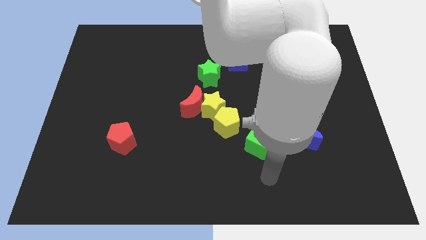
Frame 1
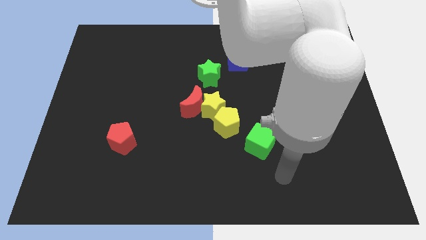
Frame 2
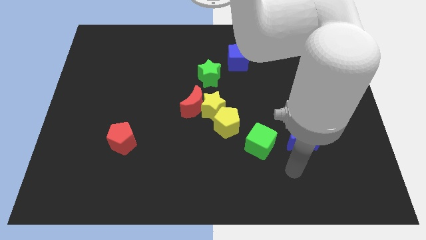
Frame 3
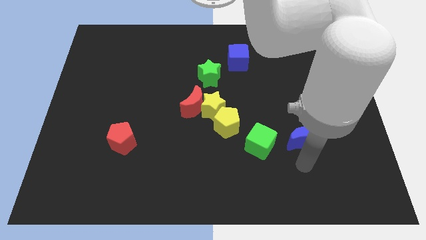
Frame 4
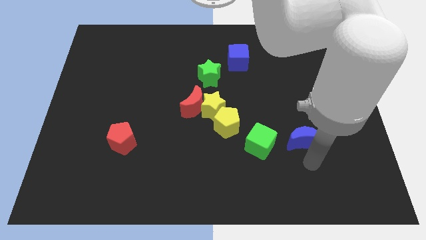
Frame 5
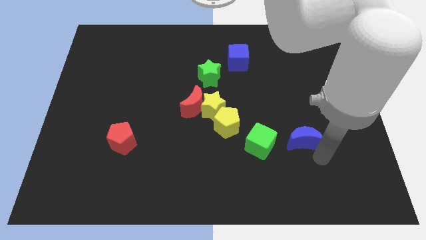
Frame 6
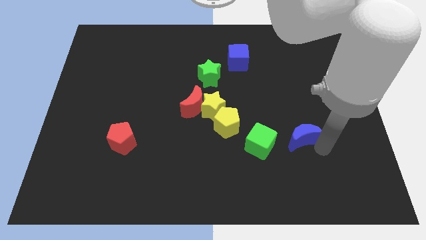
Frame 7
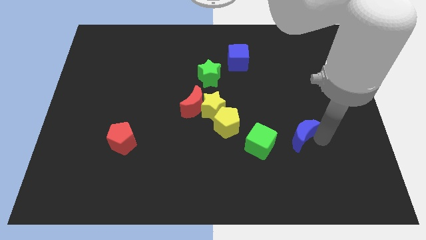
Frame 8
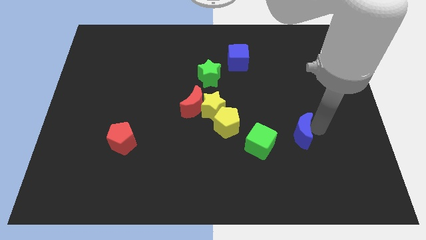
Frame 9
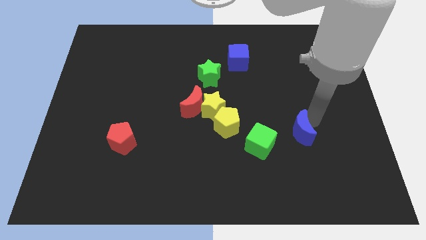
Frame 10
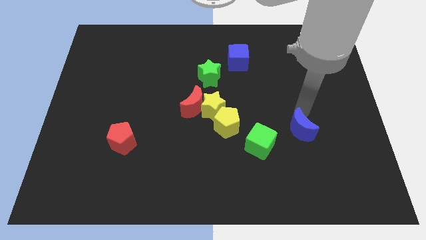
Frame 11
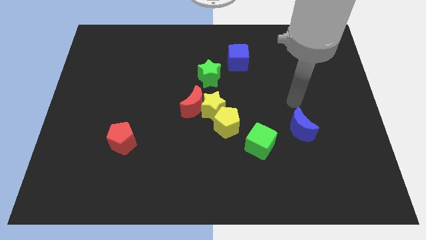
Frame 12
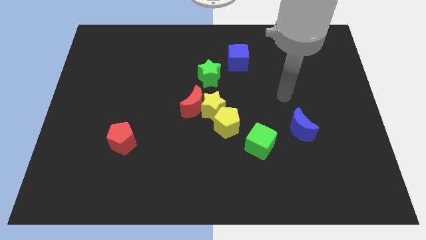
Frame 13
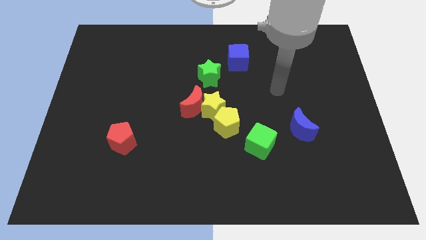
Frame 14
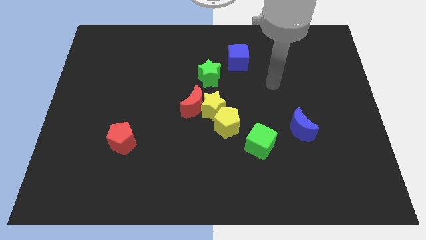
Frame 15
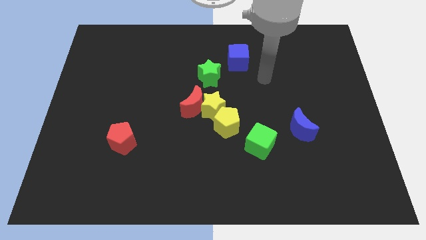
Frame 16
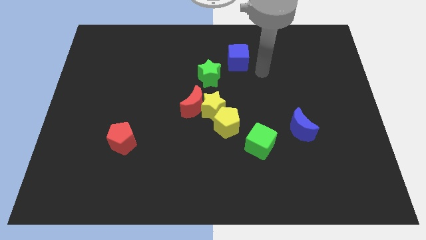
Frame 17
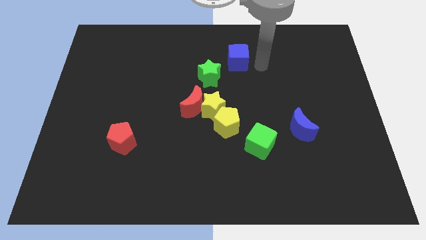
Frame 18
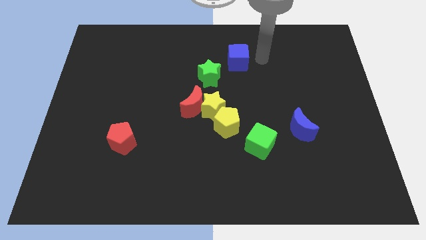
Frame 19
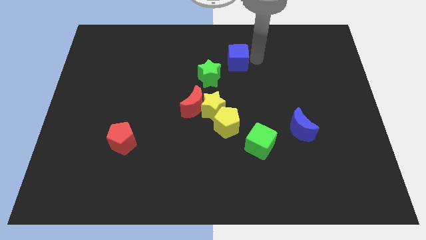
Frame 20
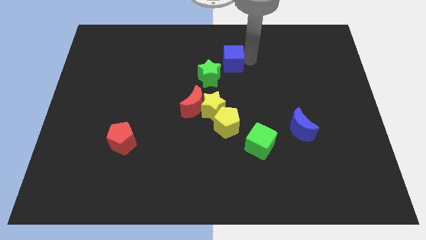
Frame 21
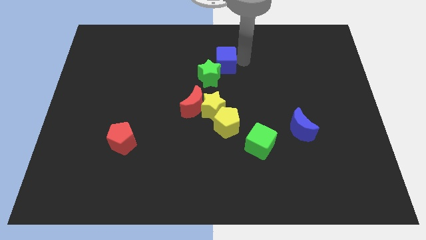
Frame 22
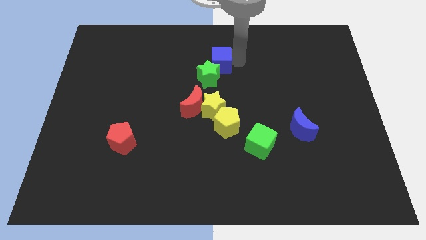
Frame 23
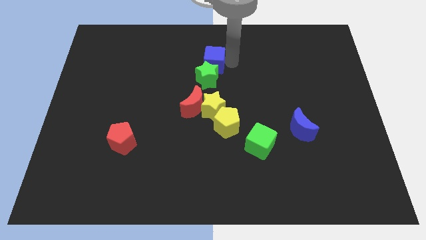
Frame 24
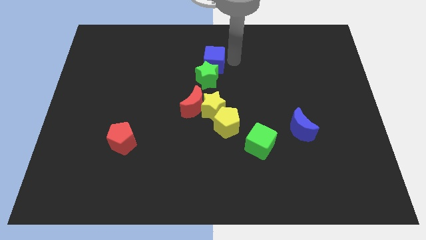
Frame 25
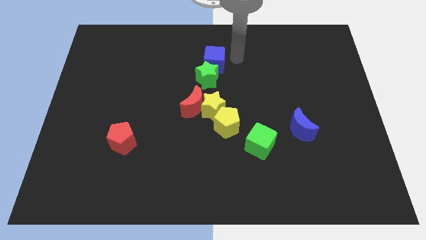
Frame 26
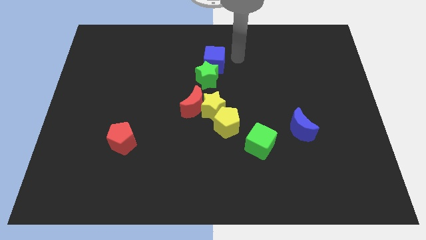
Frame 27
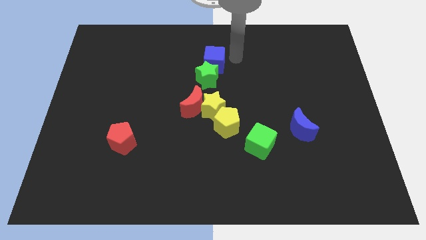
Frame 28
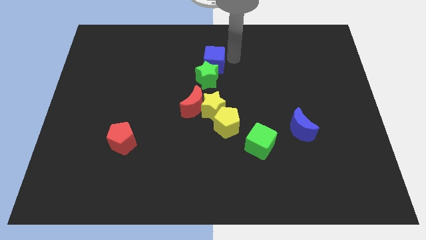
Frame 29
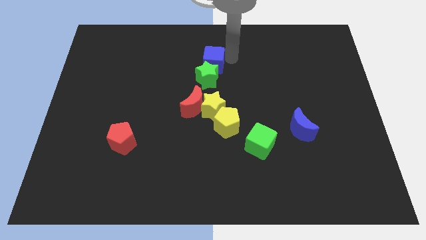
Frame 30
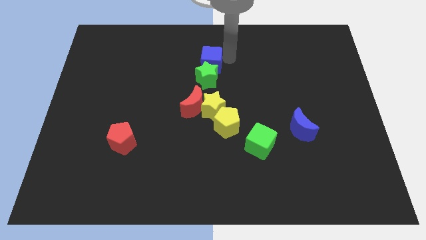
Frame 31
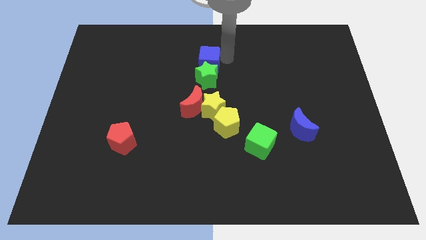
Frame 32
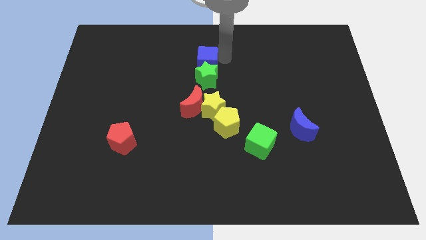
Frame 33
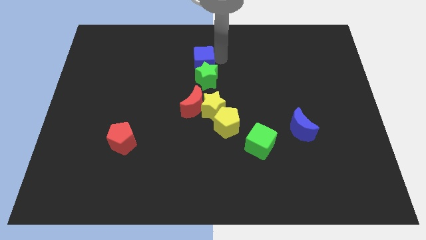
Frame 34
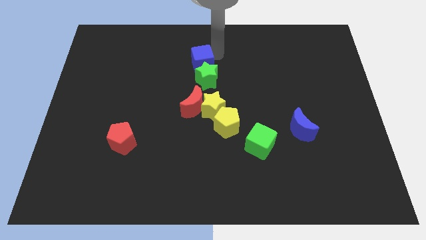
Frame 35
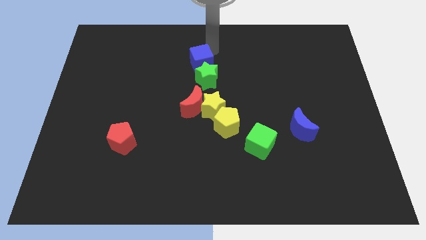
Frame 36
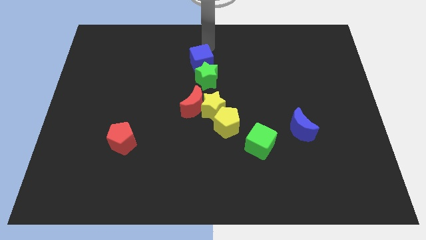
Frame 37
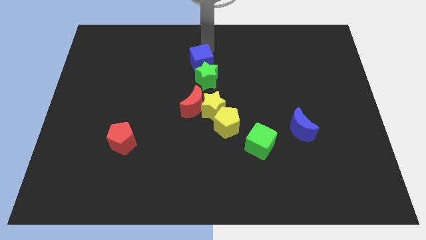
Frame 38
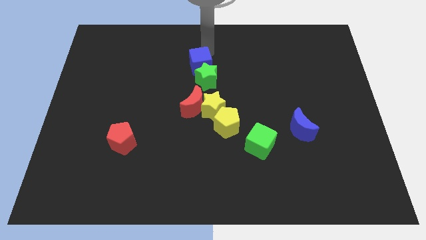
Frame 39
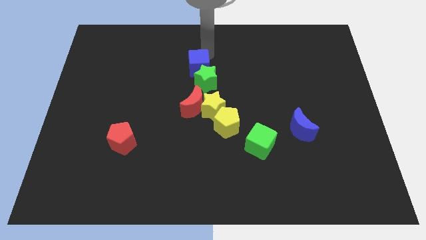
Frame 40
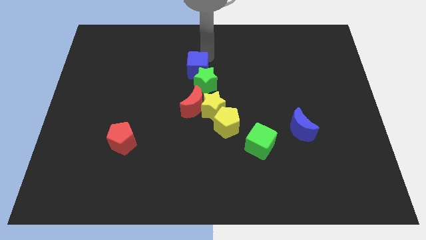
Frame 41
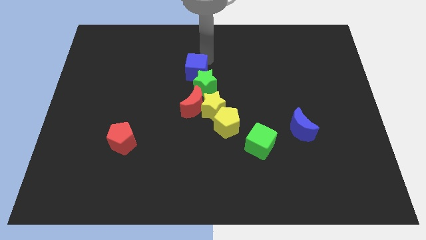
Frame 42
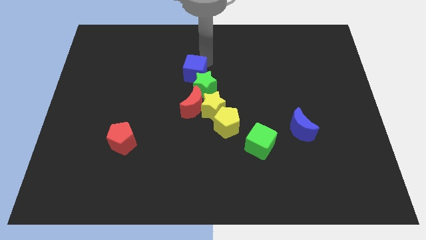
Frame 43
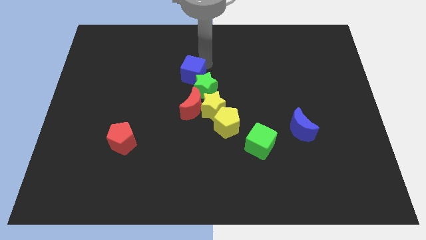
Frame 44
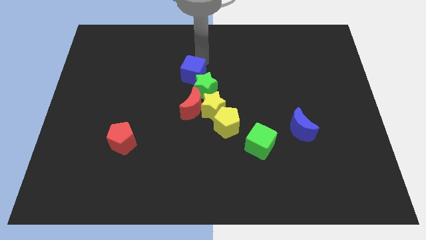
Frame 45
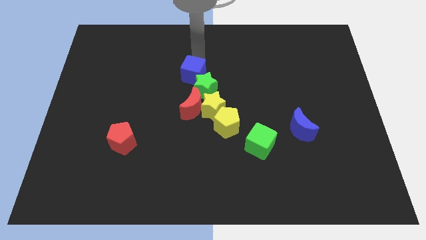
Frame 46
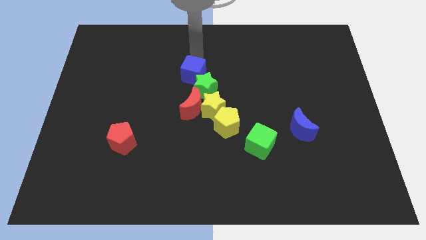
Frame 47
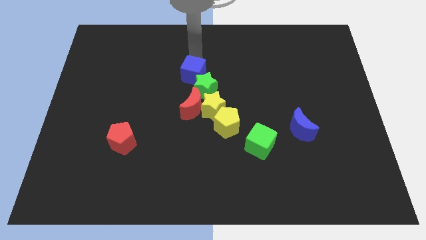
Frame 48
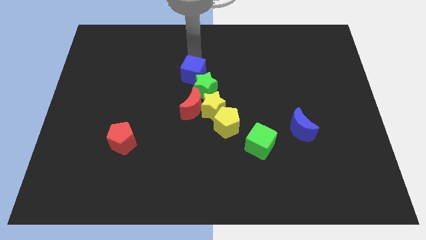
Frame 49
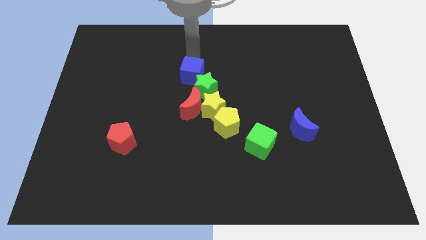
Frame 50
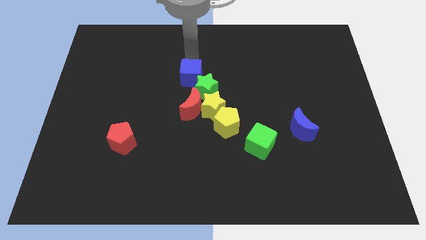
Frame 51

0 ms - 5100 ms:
move the blue cube diagonally up and to the left of the yellow star

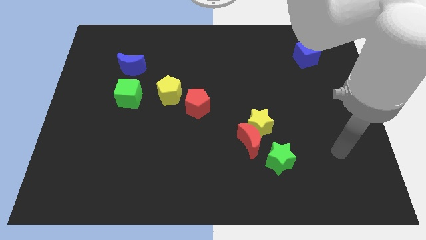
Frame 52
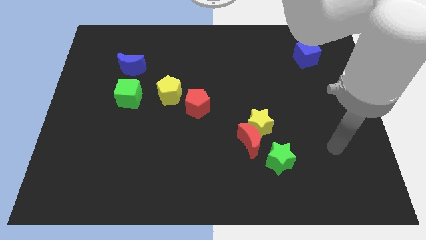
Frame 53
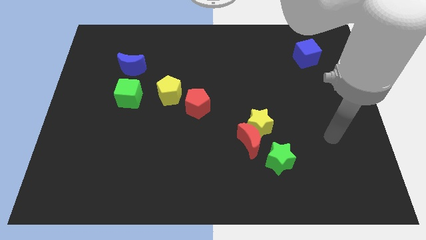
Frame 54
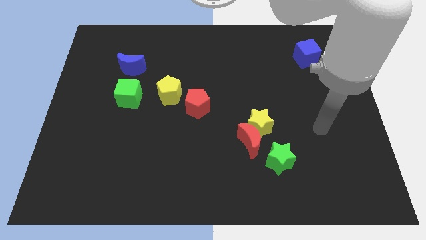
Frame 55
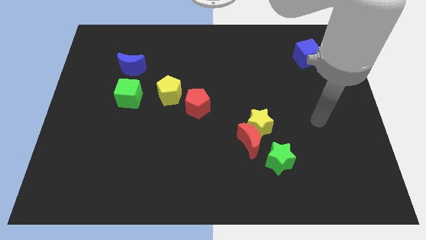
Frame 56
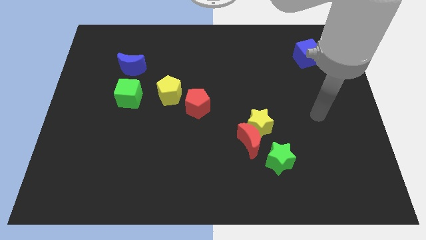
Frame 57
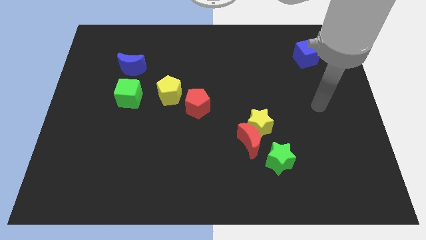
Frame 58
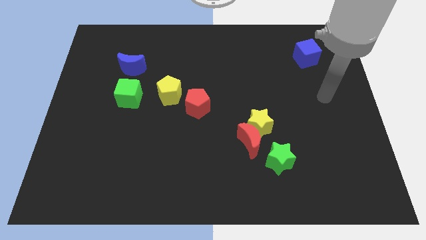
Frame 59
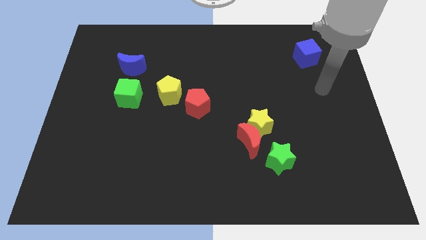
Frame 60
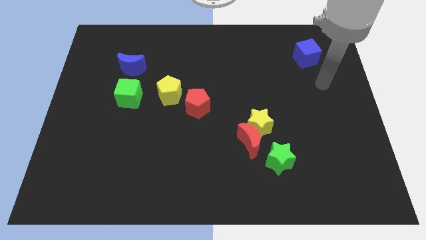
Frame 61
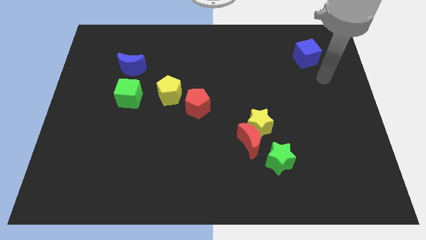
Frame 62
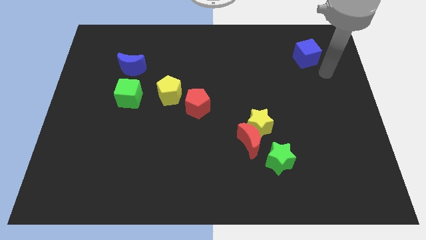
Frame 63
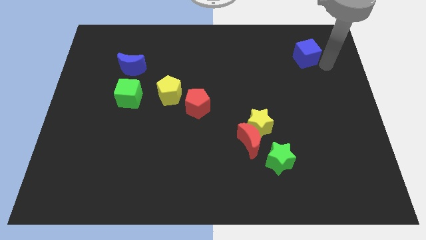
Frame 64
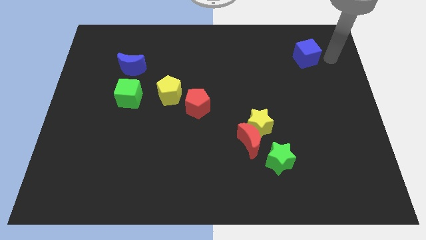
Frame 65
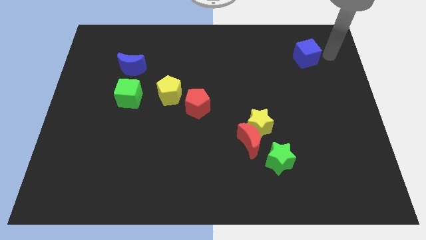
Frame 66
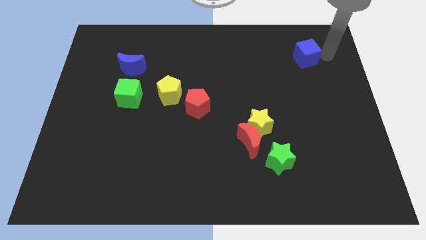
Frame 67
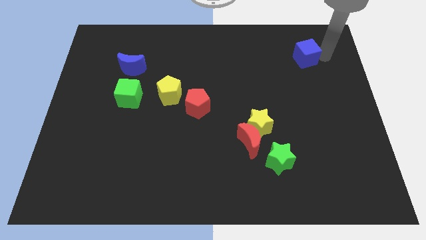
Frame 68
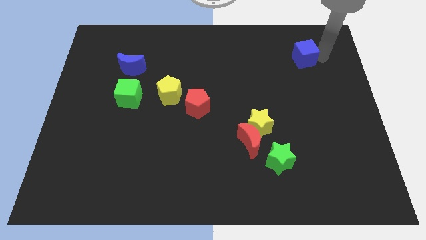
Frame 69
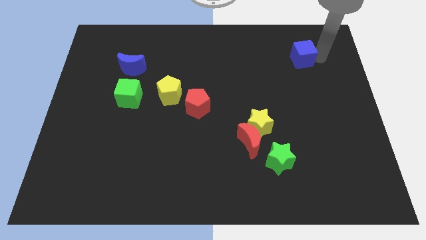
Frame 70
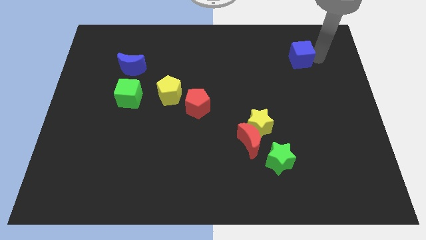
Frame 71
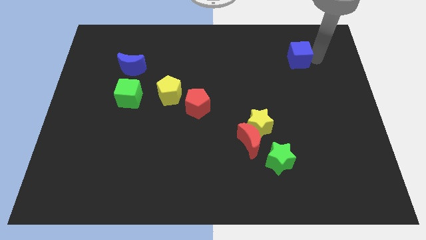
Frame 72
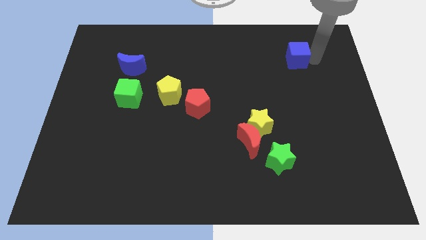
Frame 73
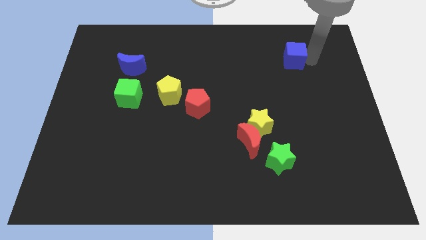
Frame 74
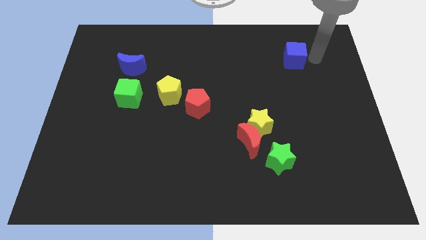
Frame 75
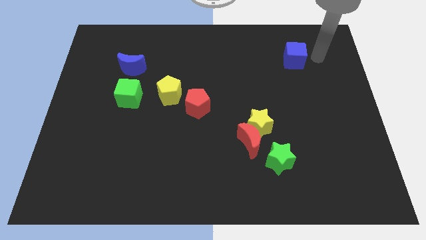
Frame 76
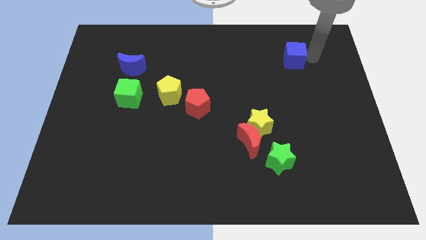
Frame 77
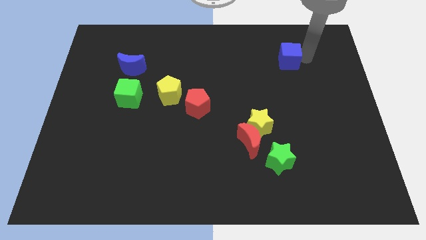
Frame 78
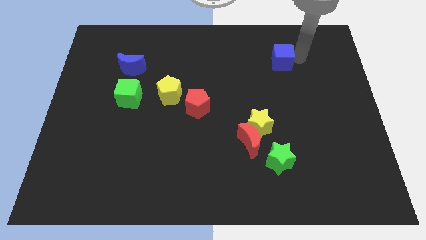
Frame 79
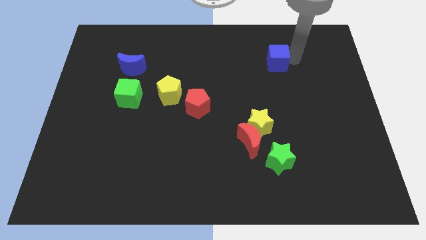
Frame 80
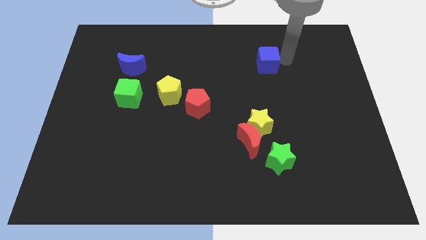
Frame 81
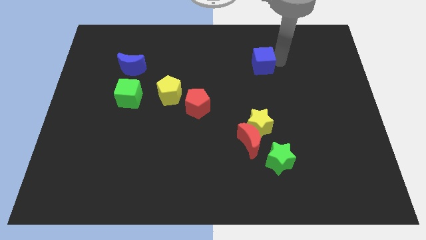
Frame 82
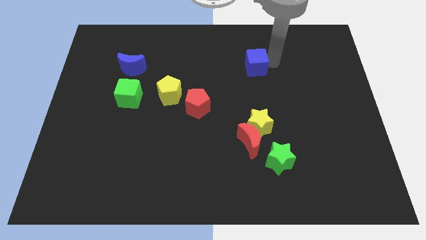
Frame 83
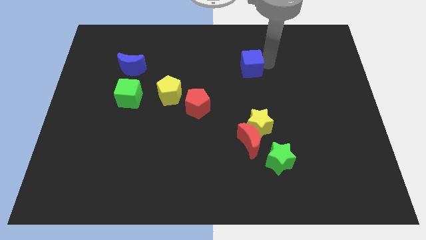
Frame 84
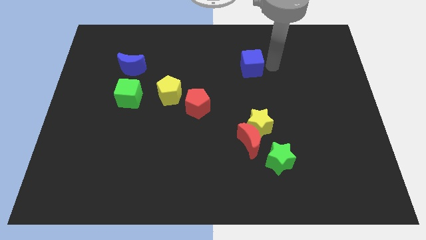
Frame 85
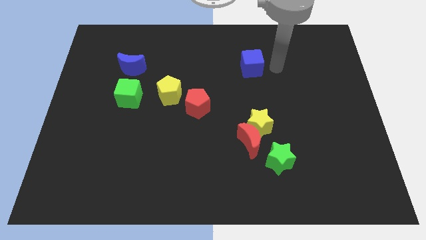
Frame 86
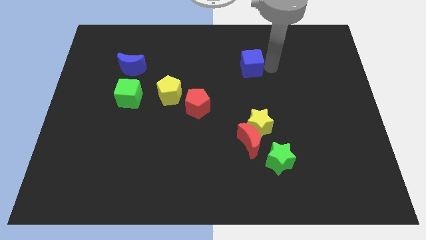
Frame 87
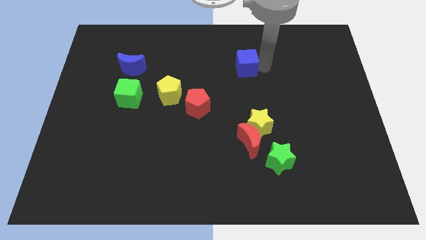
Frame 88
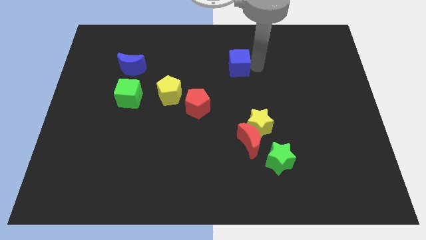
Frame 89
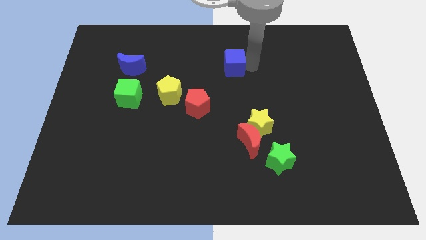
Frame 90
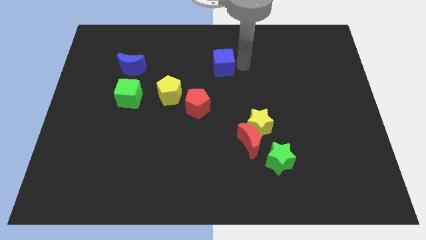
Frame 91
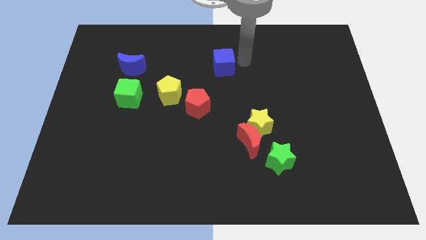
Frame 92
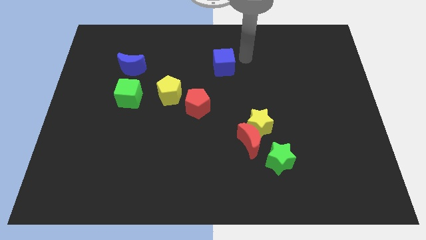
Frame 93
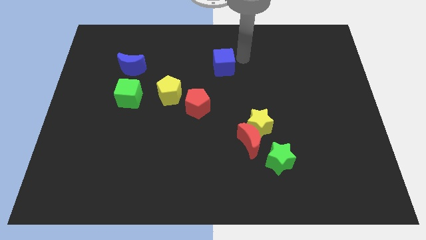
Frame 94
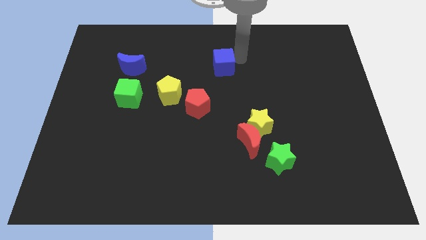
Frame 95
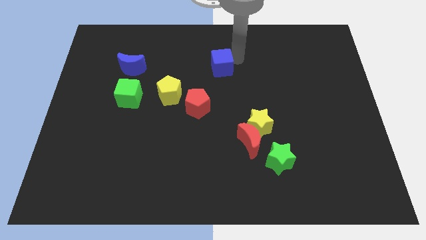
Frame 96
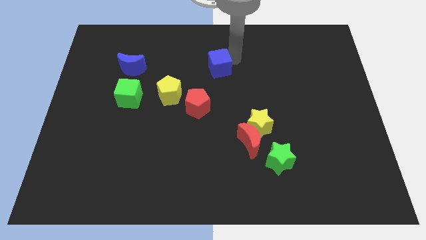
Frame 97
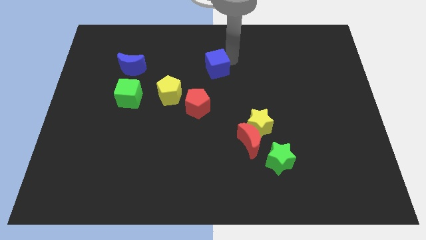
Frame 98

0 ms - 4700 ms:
push the blue cube to the top of the red pentagon
